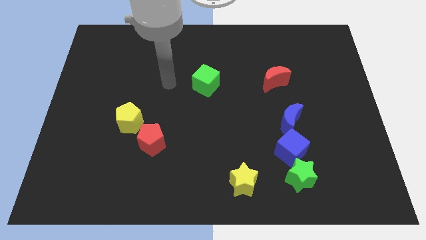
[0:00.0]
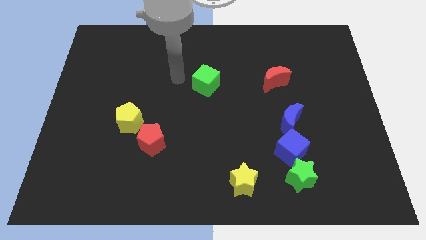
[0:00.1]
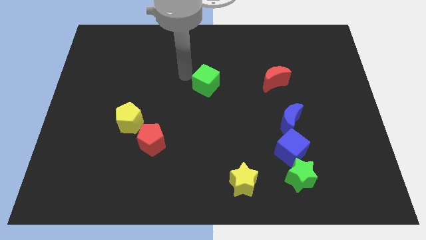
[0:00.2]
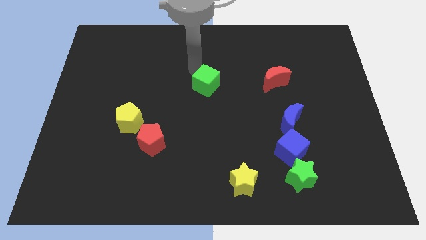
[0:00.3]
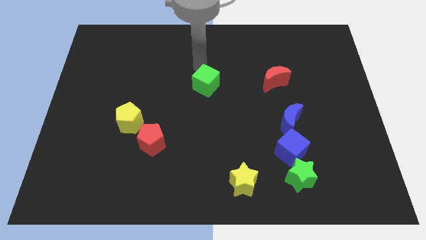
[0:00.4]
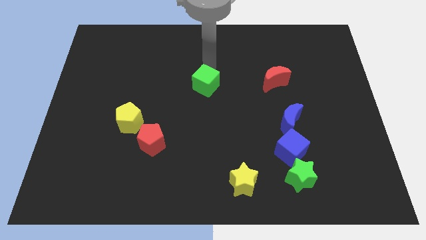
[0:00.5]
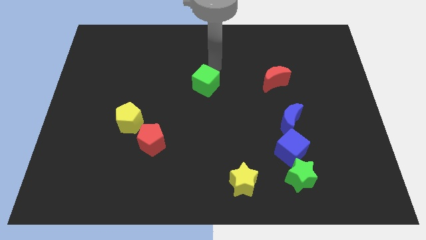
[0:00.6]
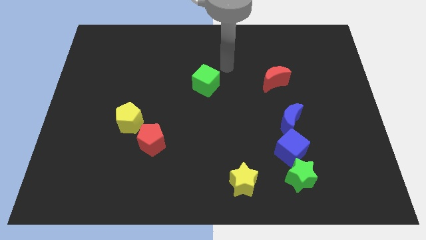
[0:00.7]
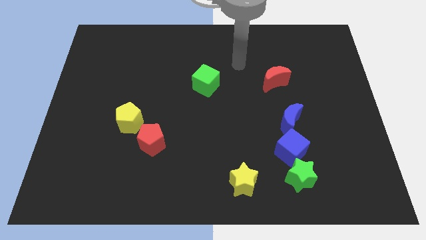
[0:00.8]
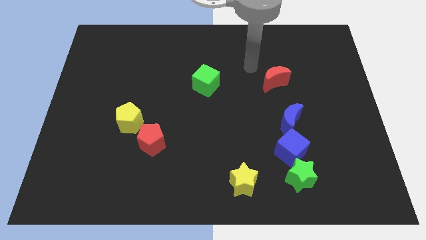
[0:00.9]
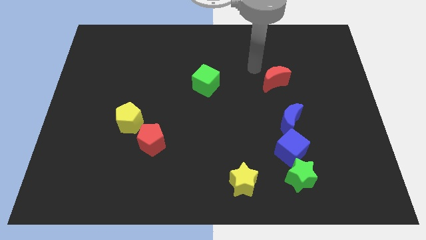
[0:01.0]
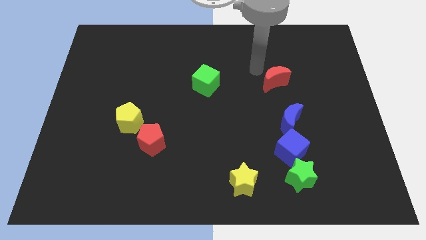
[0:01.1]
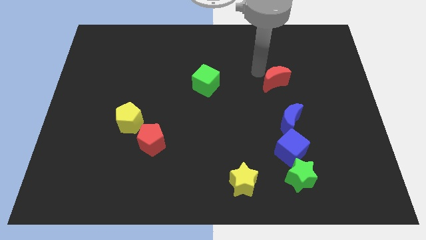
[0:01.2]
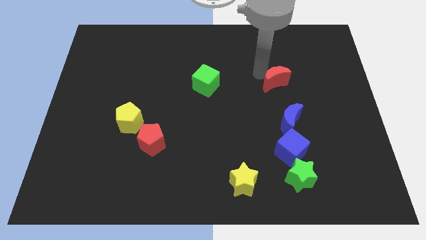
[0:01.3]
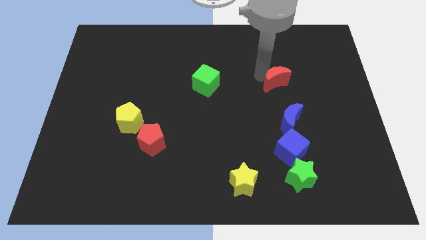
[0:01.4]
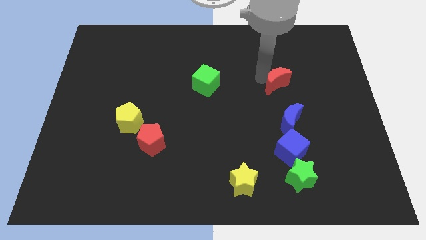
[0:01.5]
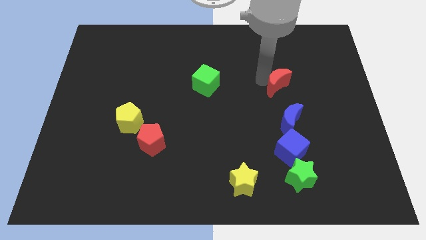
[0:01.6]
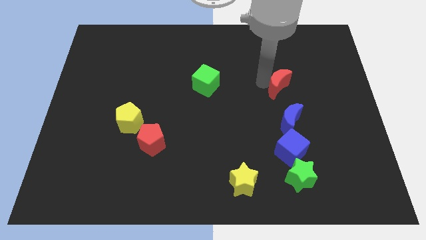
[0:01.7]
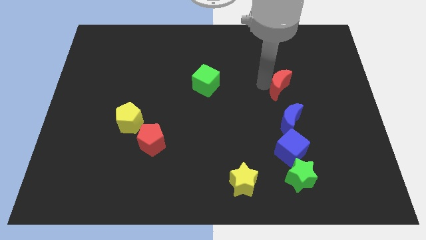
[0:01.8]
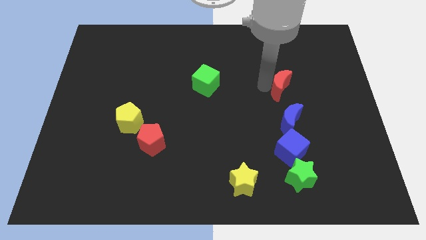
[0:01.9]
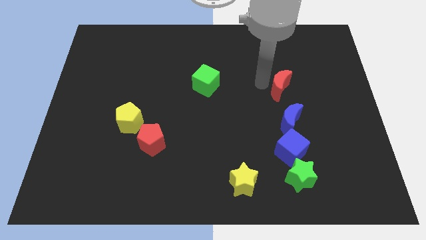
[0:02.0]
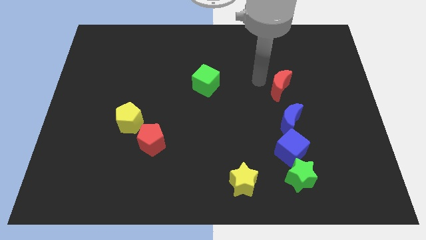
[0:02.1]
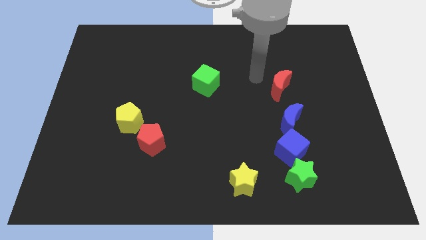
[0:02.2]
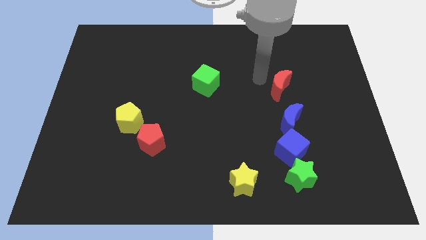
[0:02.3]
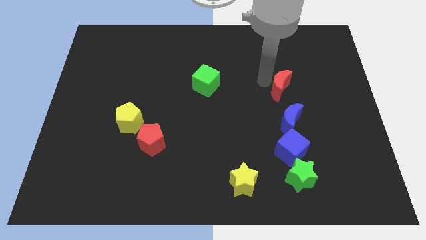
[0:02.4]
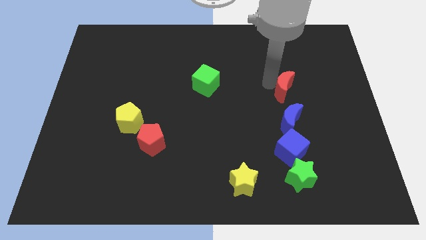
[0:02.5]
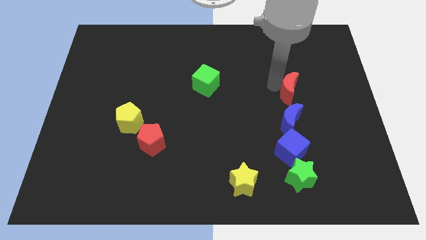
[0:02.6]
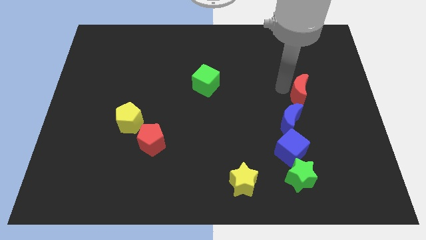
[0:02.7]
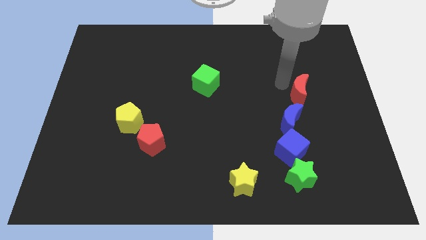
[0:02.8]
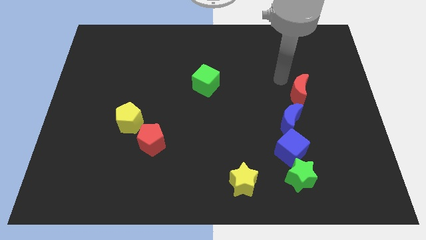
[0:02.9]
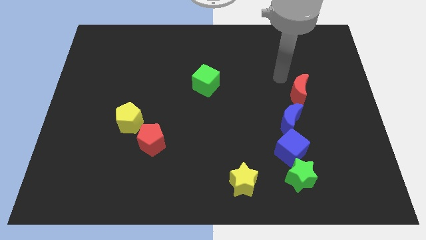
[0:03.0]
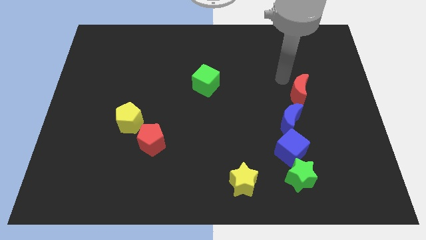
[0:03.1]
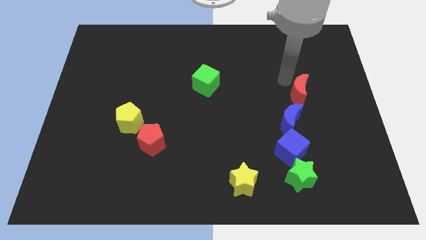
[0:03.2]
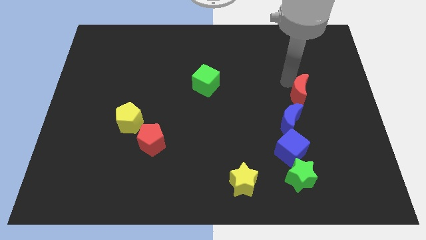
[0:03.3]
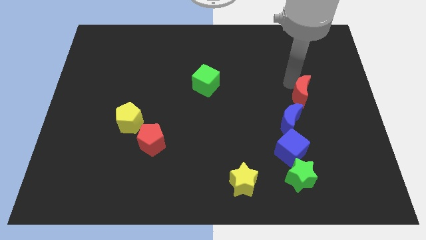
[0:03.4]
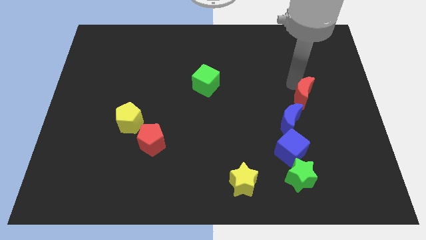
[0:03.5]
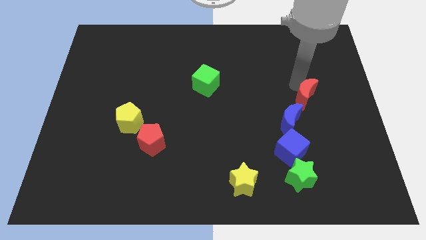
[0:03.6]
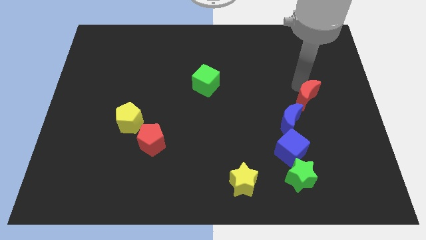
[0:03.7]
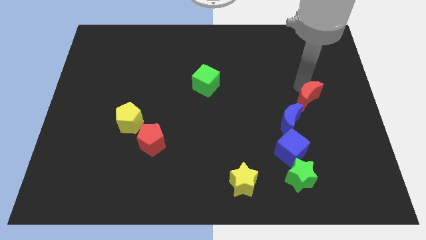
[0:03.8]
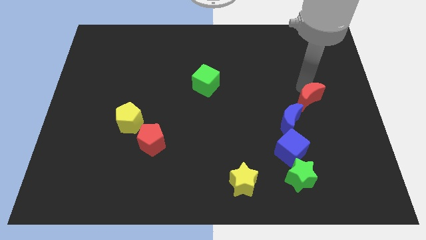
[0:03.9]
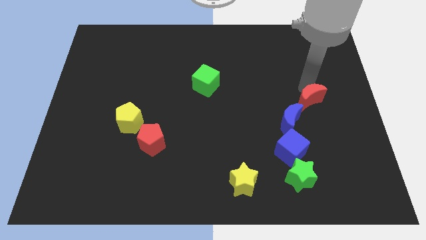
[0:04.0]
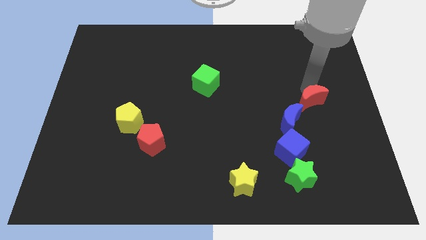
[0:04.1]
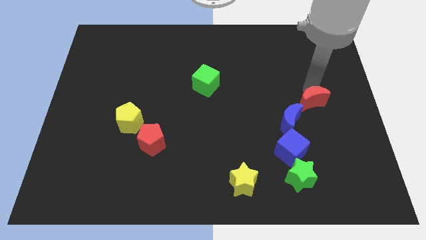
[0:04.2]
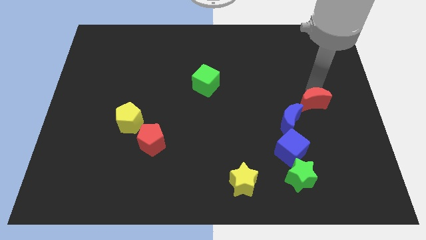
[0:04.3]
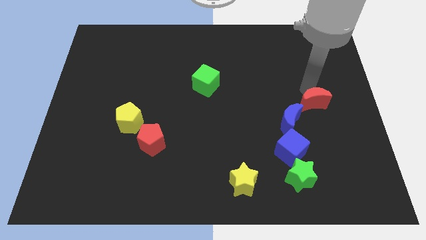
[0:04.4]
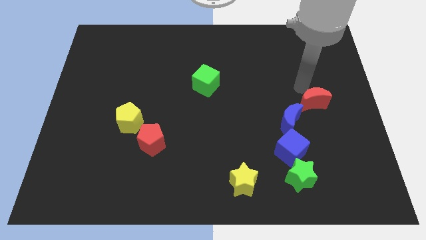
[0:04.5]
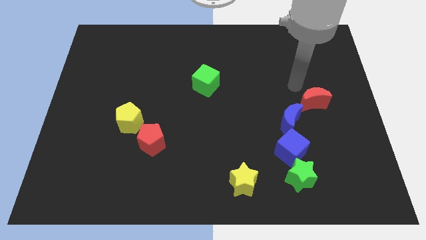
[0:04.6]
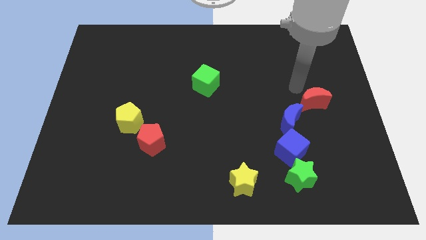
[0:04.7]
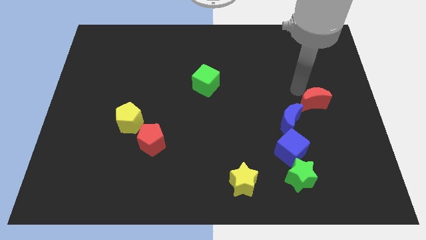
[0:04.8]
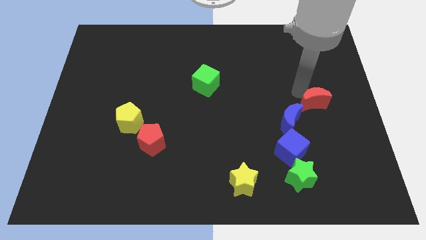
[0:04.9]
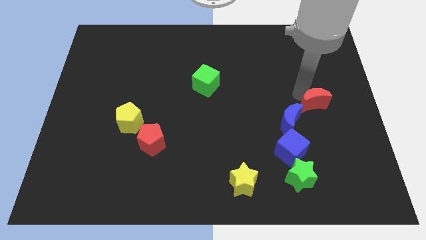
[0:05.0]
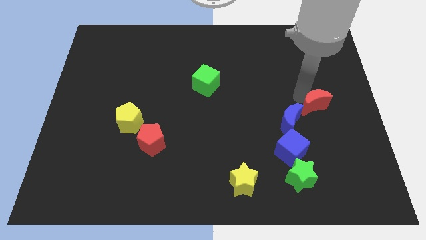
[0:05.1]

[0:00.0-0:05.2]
slide the red moon to the right of the blue moon

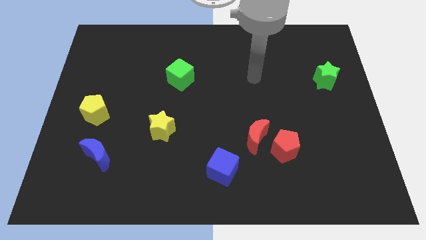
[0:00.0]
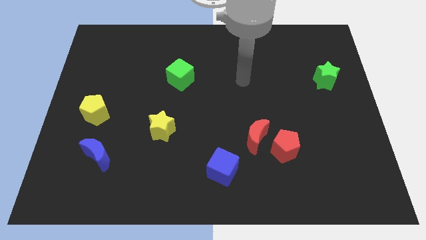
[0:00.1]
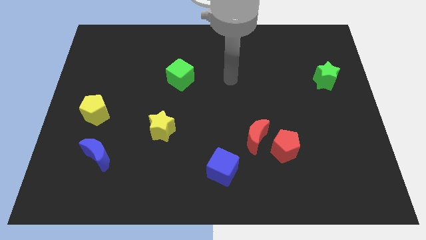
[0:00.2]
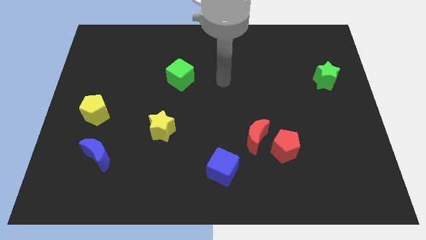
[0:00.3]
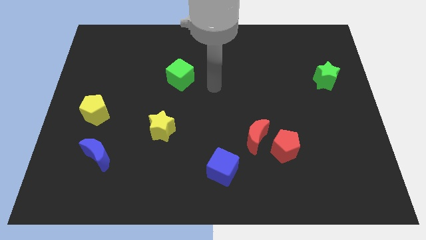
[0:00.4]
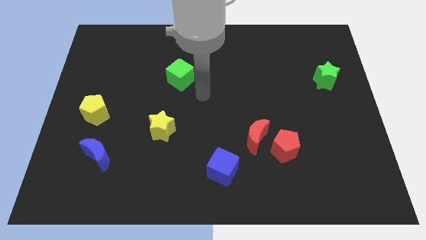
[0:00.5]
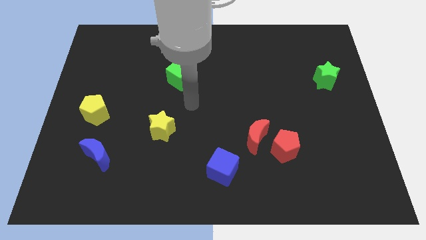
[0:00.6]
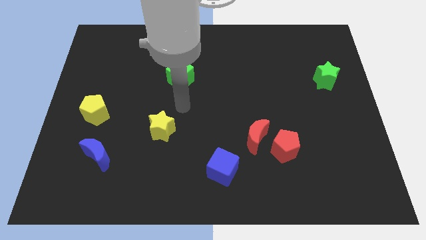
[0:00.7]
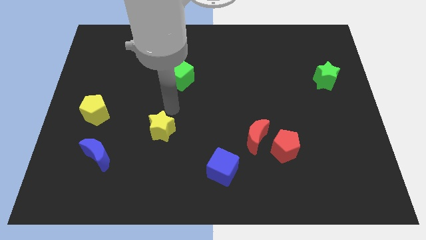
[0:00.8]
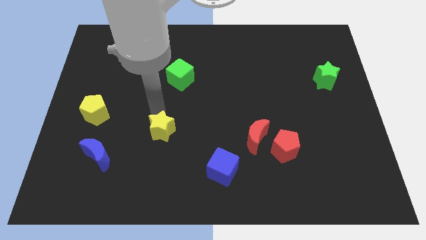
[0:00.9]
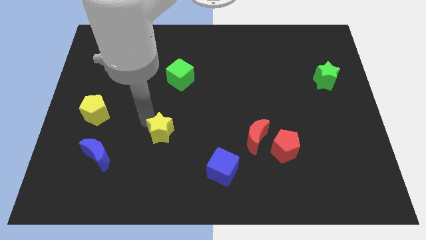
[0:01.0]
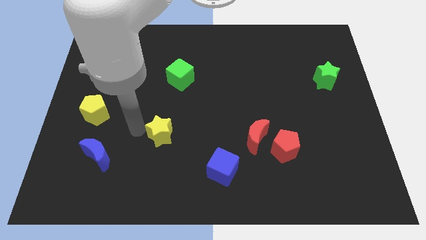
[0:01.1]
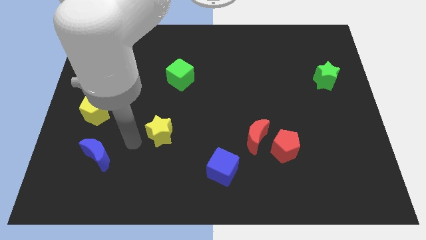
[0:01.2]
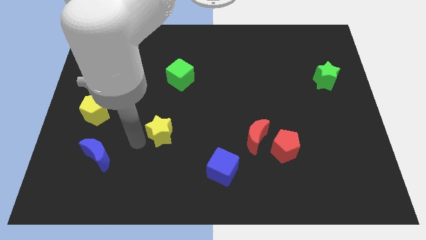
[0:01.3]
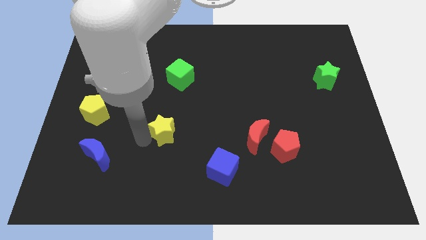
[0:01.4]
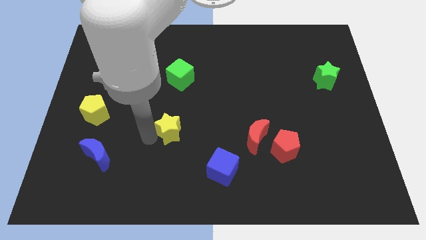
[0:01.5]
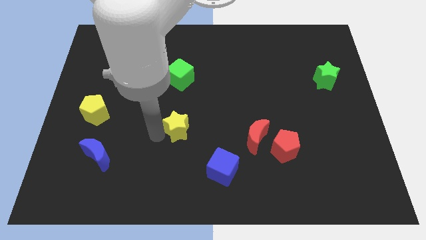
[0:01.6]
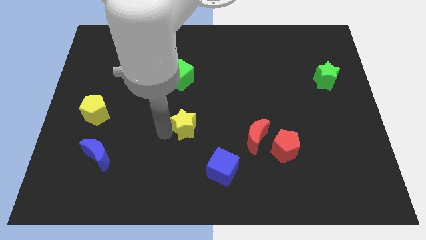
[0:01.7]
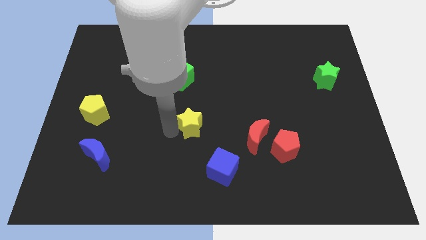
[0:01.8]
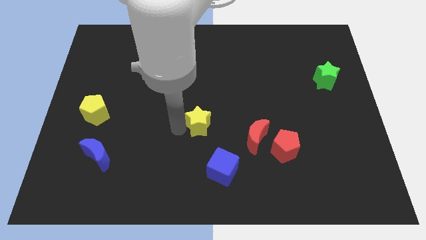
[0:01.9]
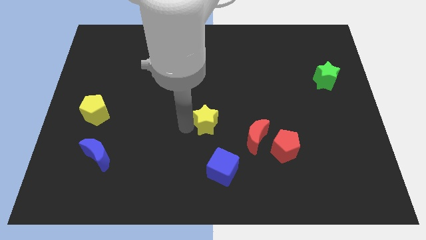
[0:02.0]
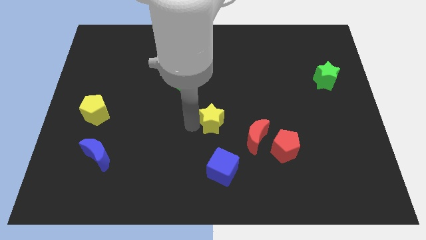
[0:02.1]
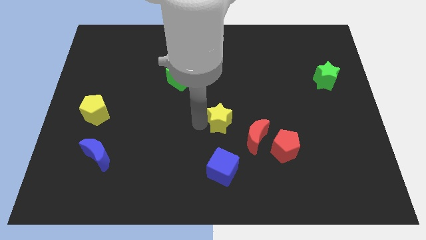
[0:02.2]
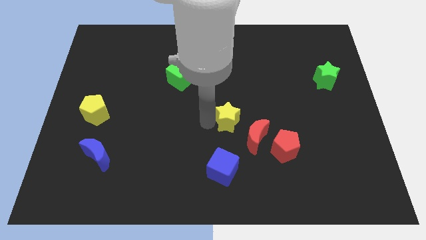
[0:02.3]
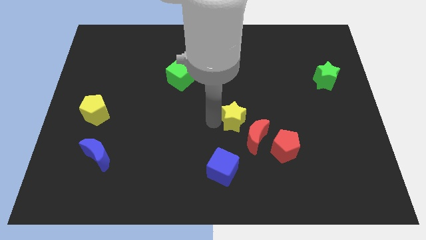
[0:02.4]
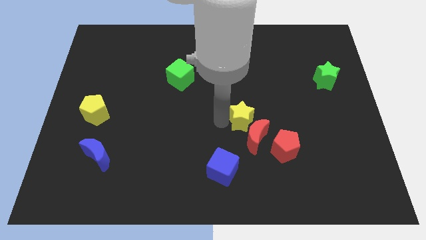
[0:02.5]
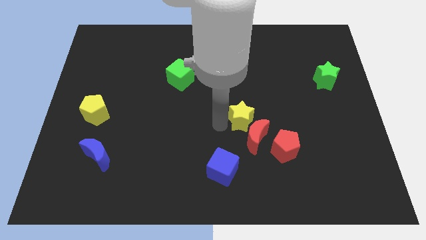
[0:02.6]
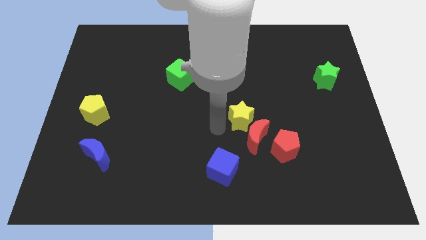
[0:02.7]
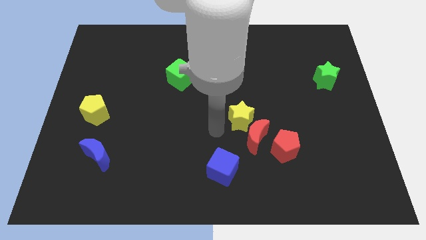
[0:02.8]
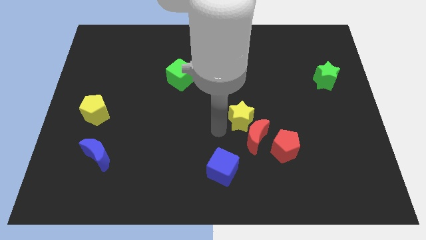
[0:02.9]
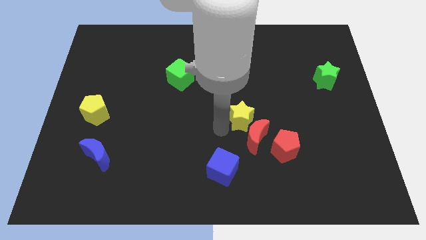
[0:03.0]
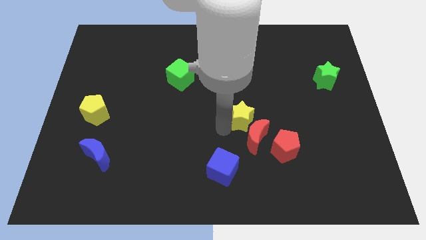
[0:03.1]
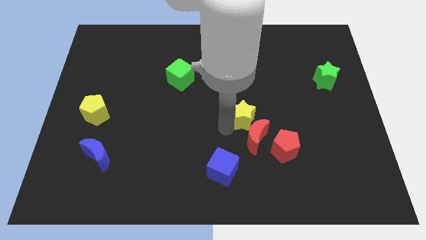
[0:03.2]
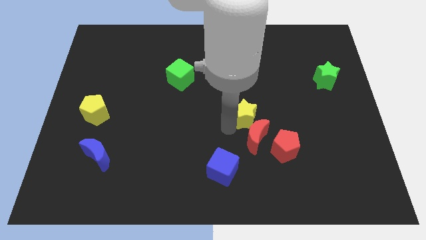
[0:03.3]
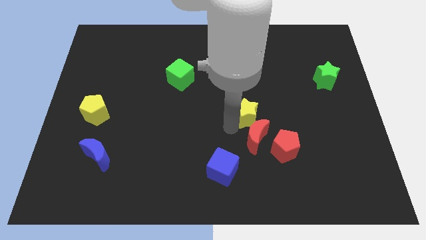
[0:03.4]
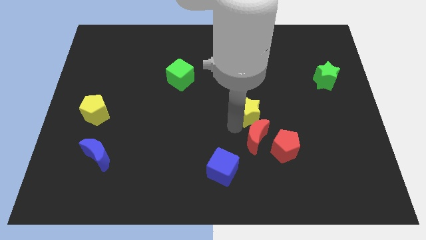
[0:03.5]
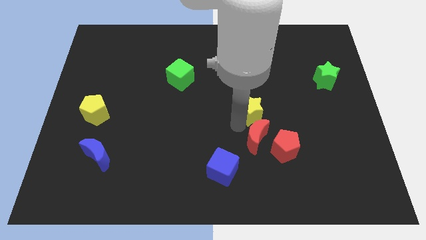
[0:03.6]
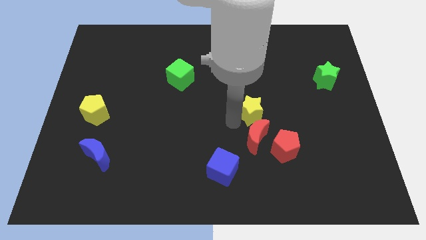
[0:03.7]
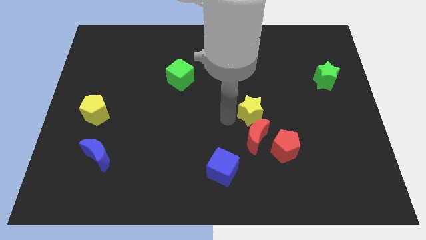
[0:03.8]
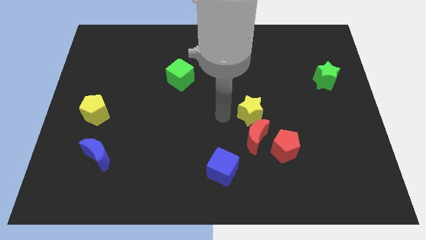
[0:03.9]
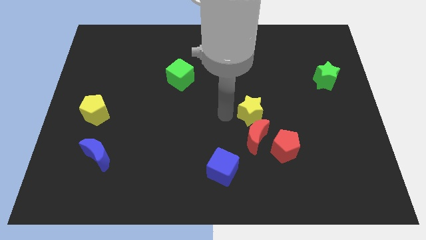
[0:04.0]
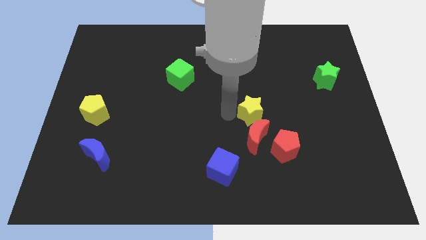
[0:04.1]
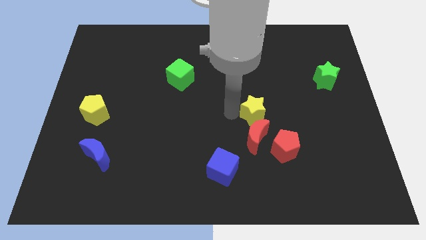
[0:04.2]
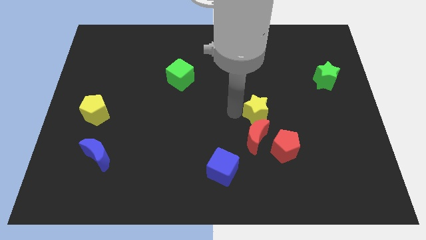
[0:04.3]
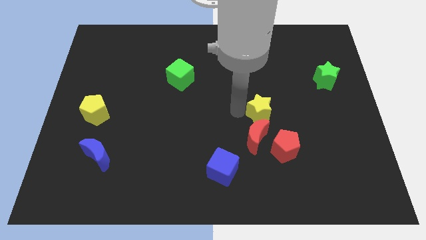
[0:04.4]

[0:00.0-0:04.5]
put the yellow star to the top of the red pentagon
